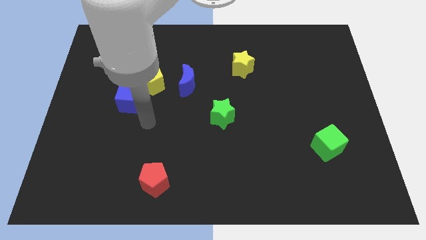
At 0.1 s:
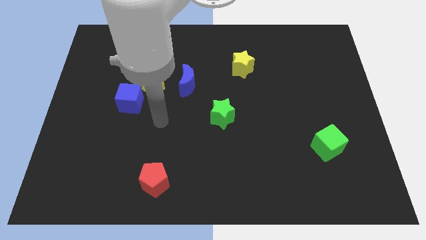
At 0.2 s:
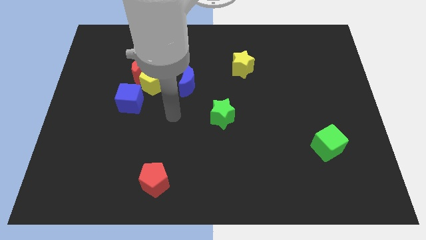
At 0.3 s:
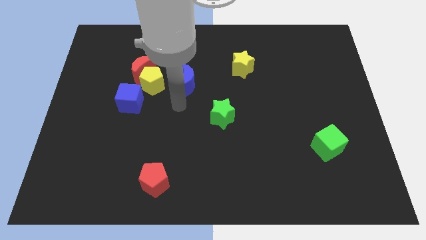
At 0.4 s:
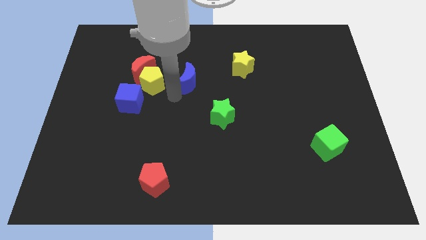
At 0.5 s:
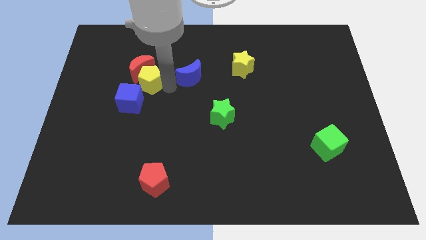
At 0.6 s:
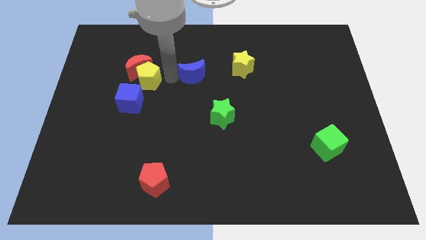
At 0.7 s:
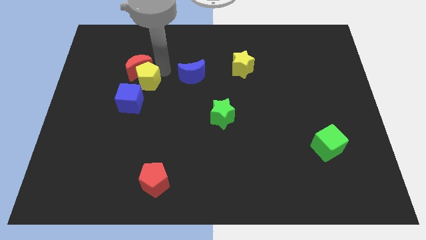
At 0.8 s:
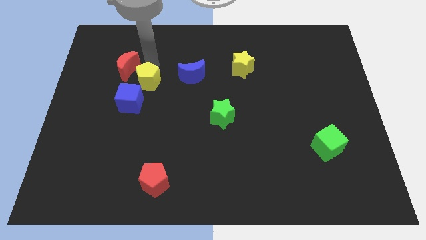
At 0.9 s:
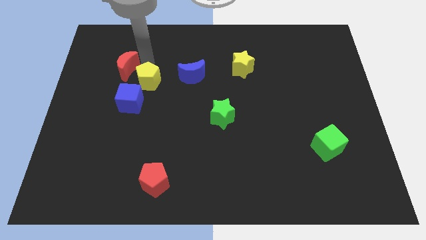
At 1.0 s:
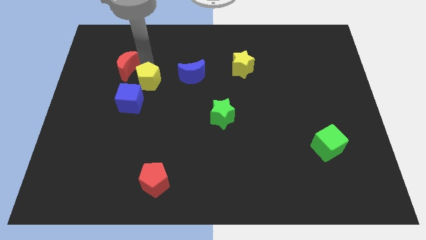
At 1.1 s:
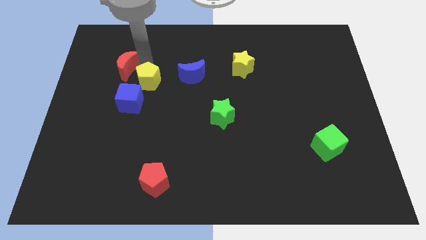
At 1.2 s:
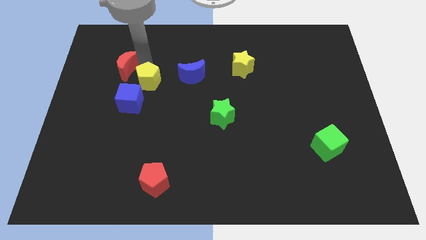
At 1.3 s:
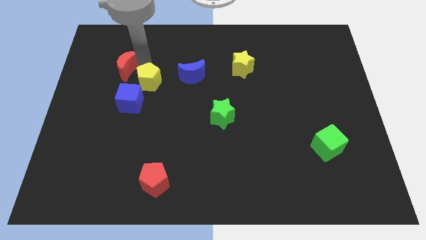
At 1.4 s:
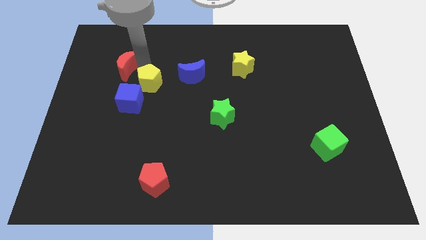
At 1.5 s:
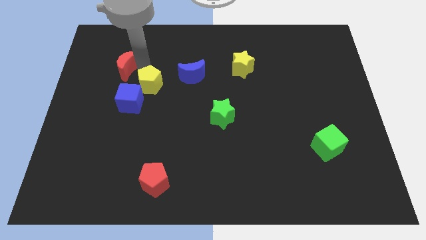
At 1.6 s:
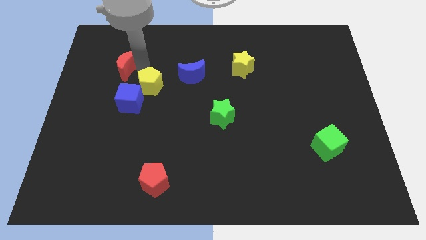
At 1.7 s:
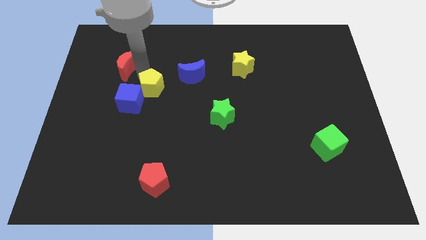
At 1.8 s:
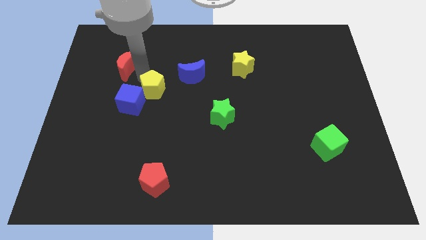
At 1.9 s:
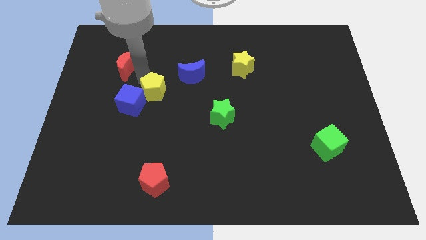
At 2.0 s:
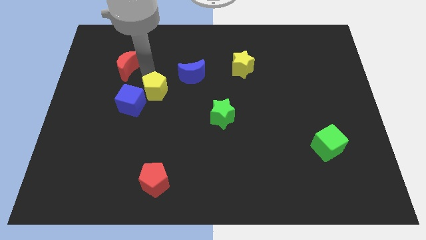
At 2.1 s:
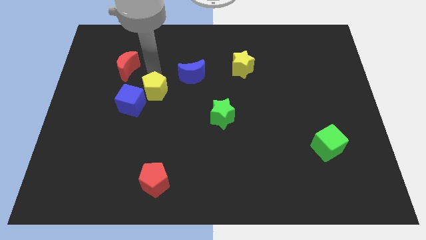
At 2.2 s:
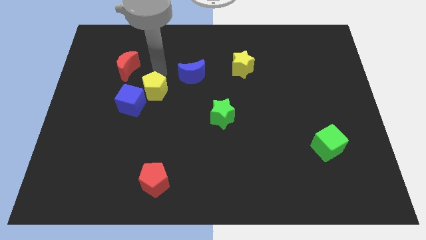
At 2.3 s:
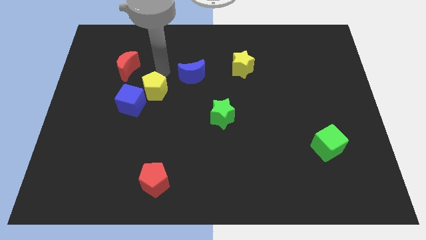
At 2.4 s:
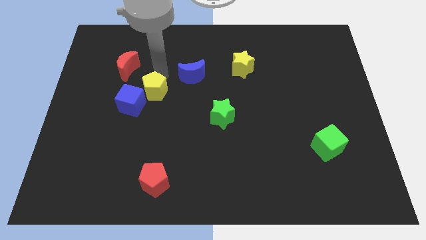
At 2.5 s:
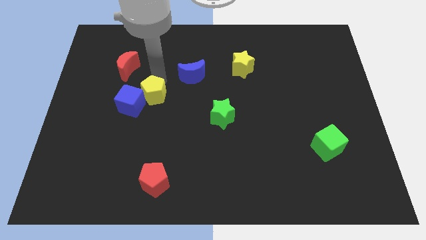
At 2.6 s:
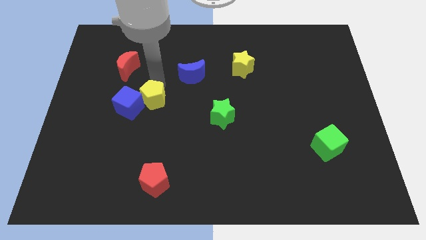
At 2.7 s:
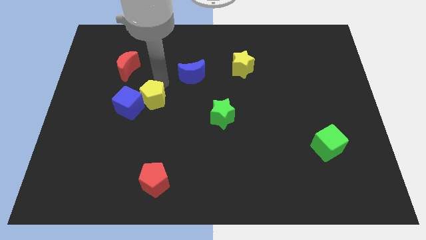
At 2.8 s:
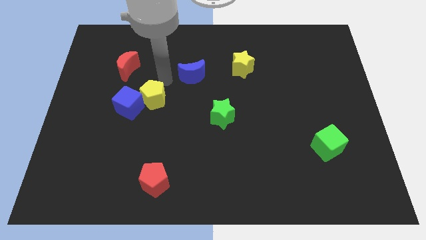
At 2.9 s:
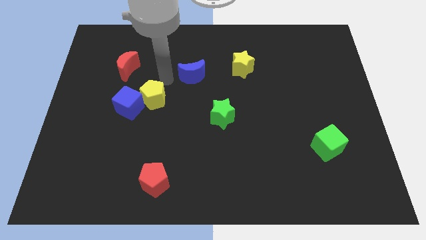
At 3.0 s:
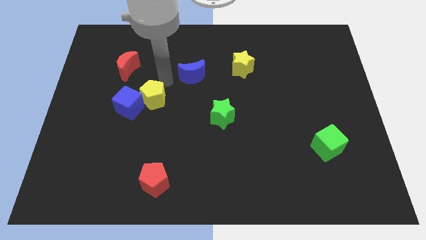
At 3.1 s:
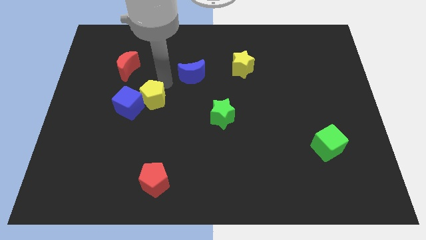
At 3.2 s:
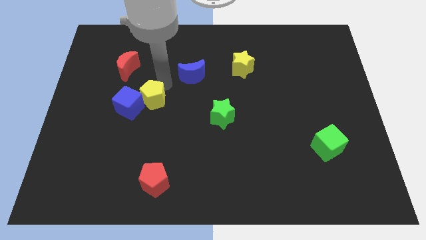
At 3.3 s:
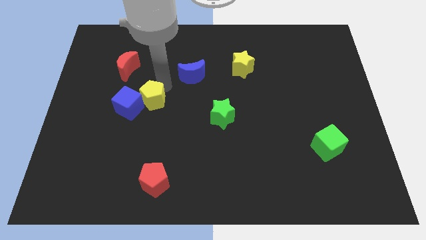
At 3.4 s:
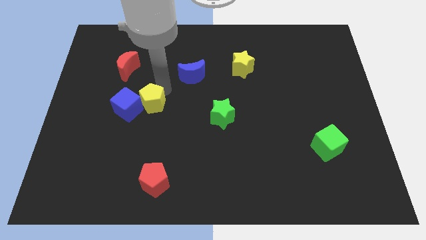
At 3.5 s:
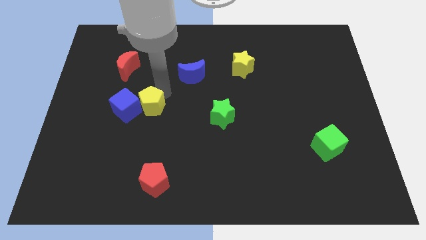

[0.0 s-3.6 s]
push the yellow pentagon slightly down

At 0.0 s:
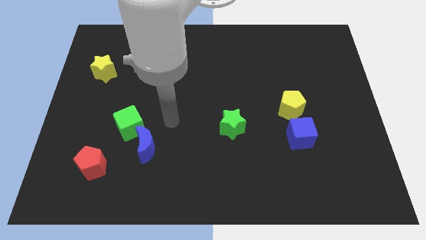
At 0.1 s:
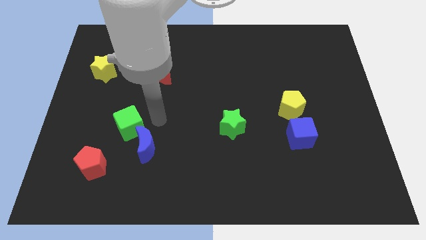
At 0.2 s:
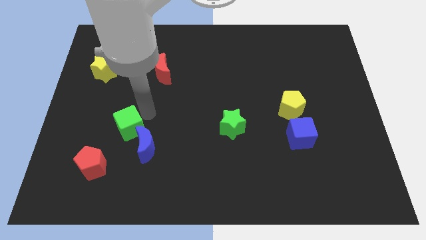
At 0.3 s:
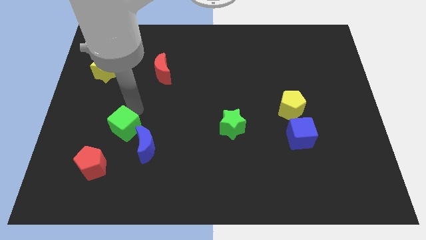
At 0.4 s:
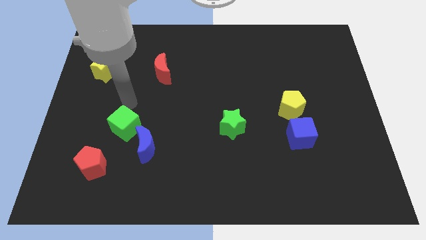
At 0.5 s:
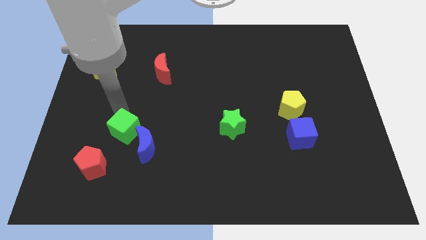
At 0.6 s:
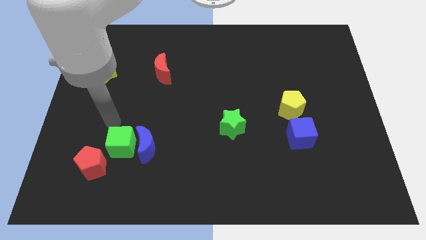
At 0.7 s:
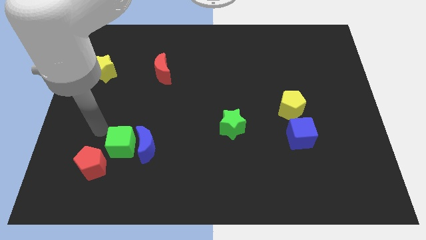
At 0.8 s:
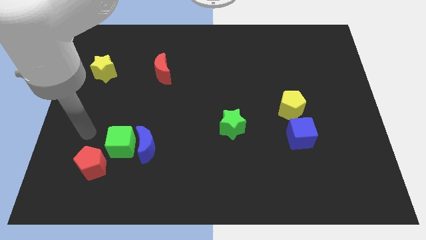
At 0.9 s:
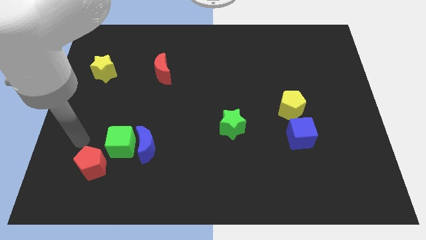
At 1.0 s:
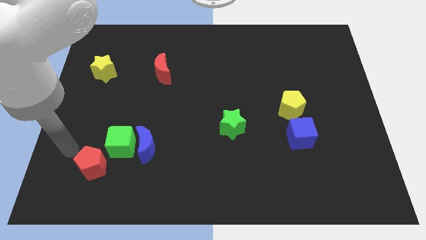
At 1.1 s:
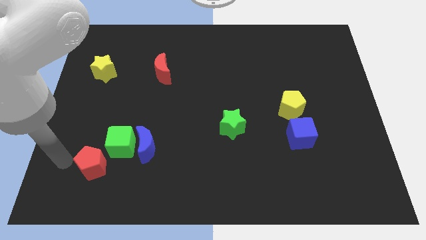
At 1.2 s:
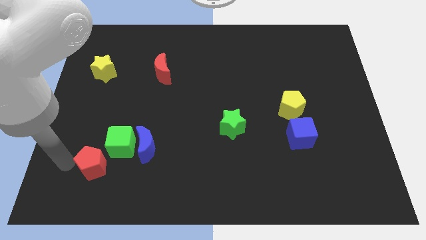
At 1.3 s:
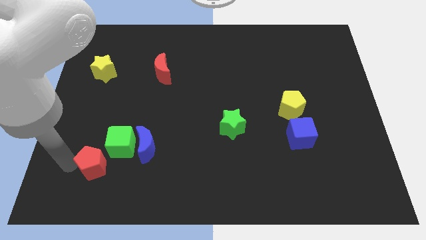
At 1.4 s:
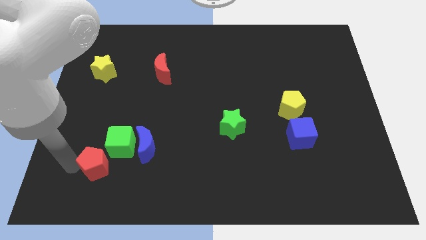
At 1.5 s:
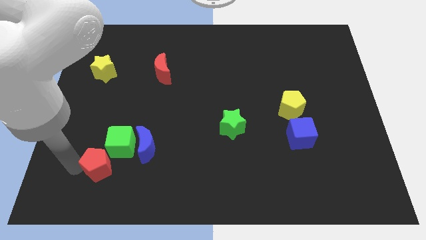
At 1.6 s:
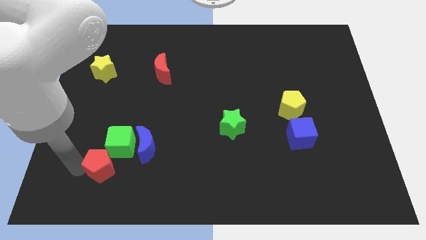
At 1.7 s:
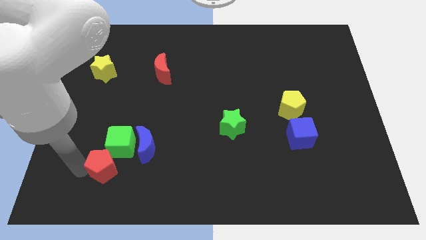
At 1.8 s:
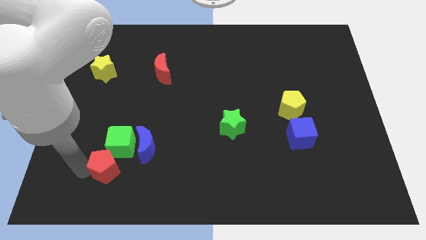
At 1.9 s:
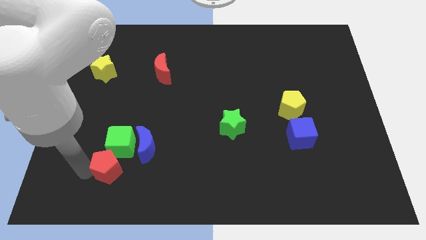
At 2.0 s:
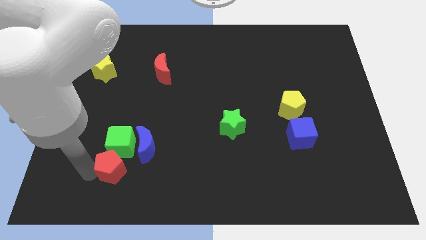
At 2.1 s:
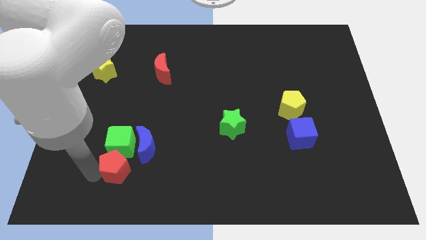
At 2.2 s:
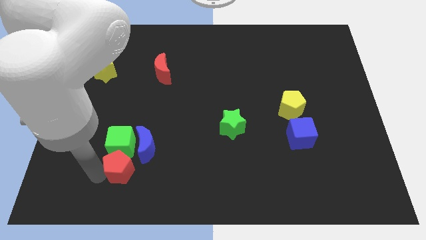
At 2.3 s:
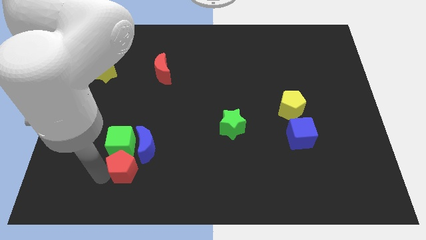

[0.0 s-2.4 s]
move the red pentagon slightly to the right

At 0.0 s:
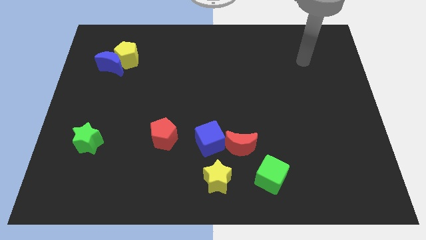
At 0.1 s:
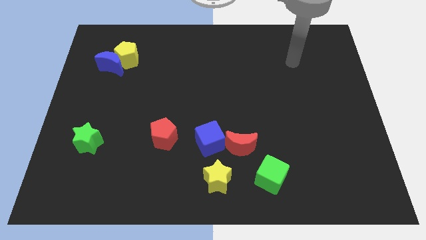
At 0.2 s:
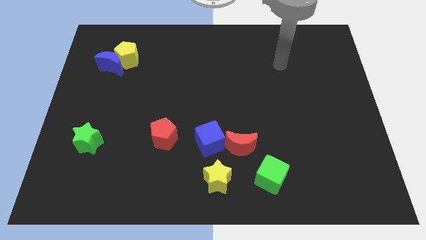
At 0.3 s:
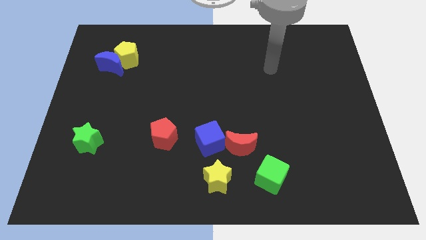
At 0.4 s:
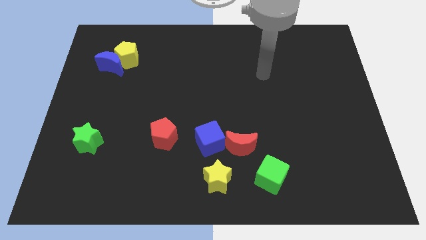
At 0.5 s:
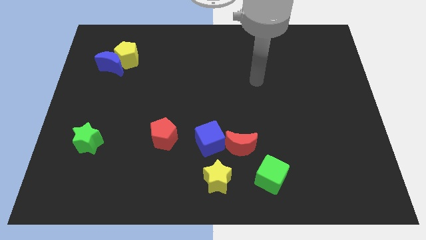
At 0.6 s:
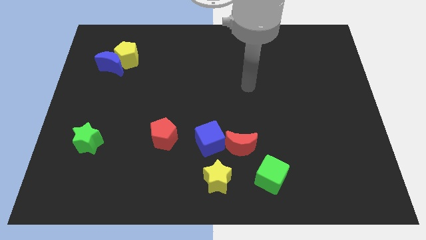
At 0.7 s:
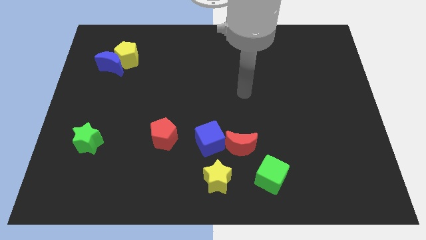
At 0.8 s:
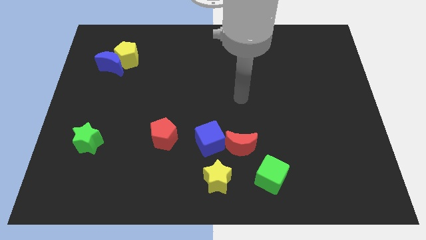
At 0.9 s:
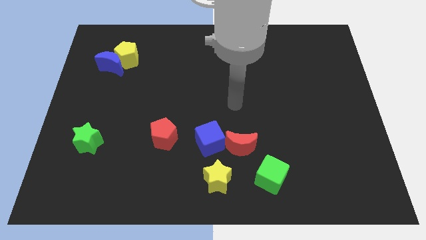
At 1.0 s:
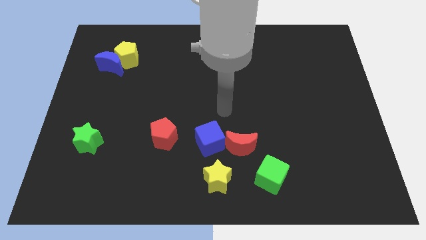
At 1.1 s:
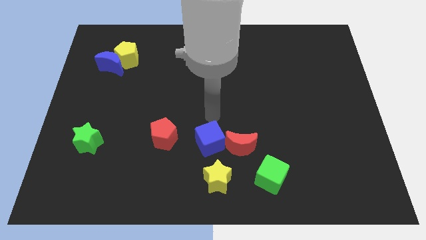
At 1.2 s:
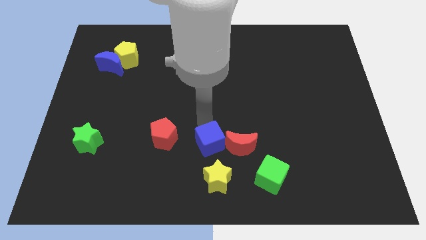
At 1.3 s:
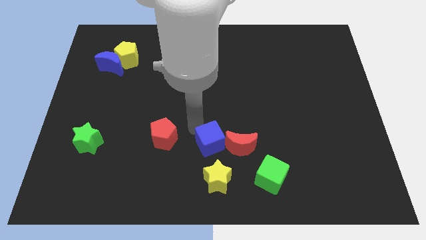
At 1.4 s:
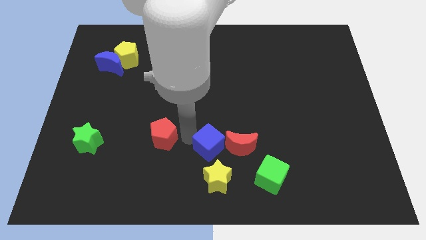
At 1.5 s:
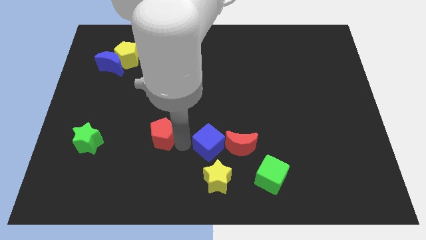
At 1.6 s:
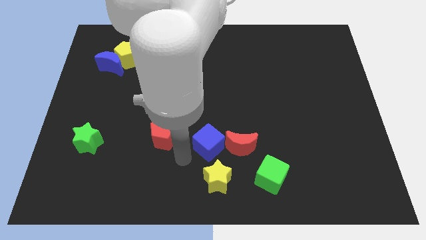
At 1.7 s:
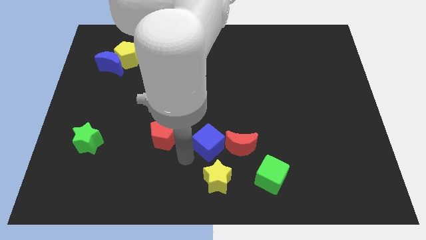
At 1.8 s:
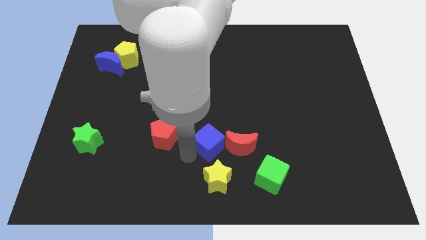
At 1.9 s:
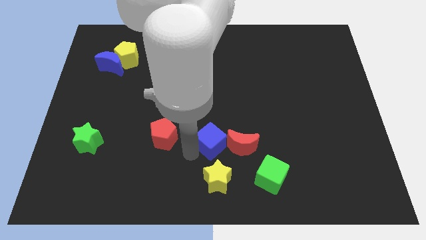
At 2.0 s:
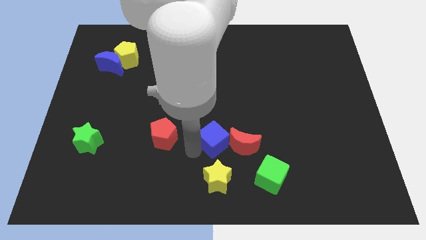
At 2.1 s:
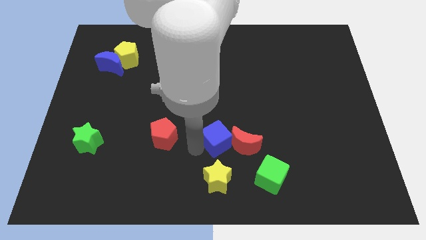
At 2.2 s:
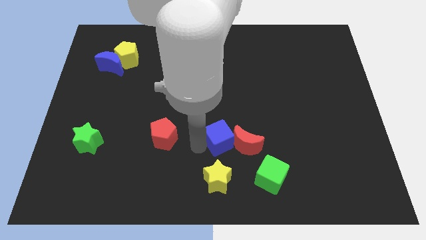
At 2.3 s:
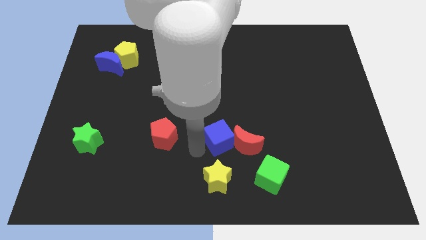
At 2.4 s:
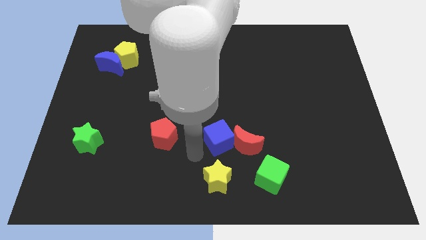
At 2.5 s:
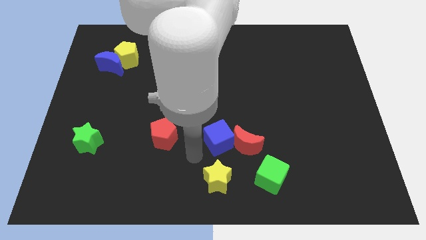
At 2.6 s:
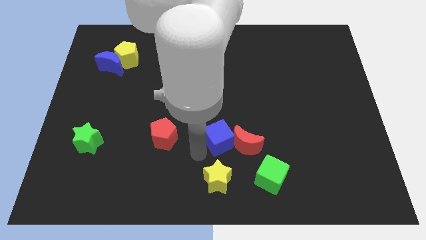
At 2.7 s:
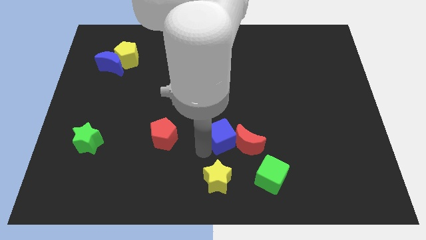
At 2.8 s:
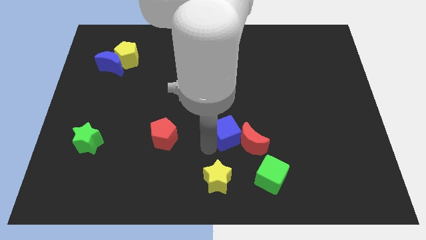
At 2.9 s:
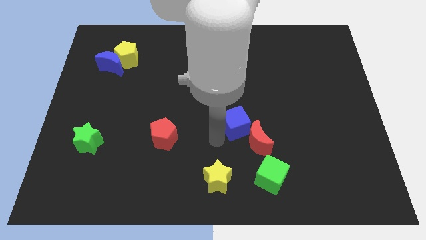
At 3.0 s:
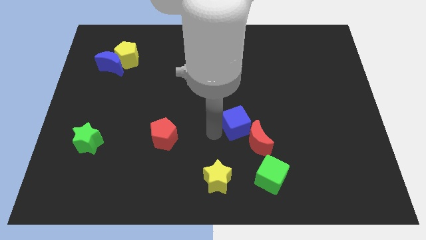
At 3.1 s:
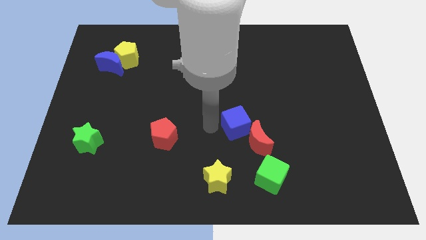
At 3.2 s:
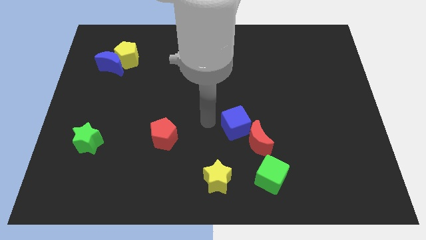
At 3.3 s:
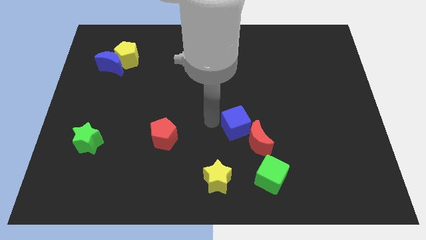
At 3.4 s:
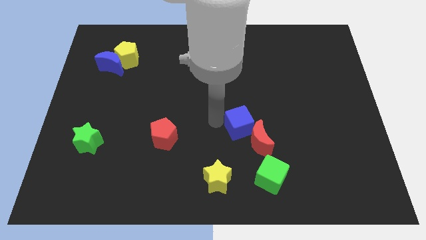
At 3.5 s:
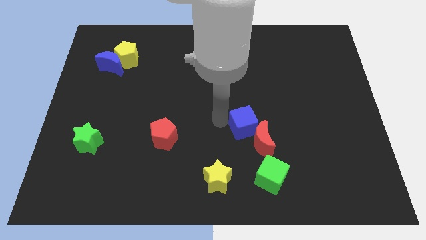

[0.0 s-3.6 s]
move the blue cube right a bit
